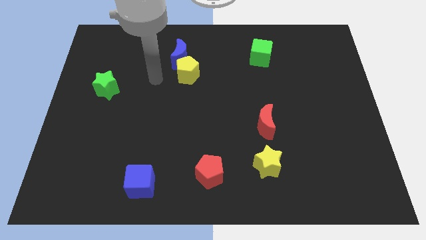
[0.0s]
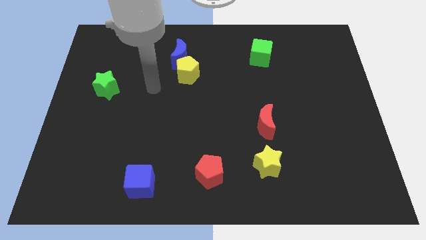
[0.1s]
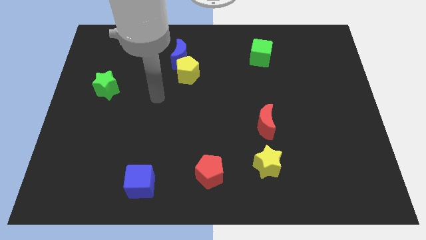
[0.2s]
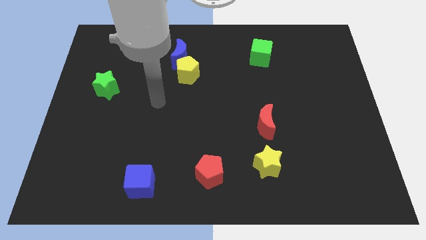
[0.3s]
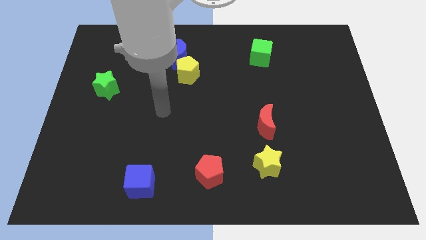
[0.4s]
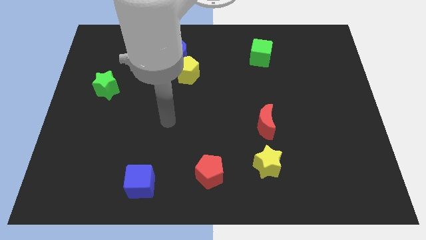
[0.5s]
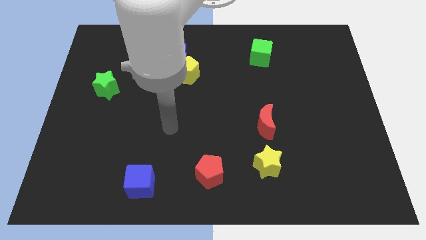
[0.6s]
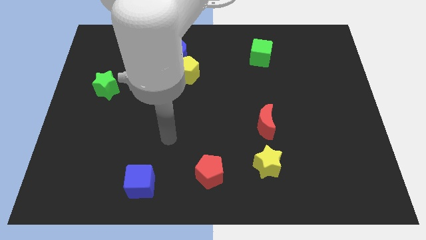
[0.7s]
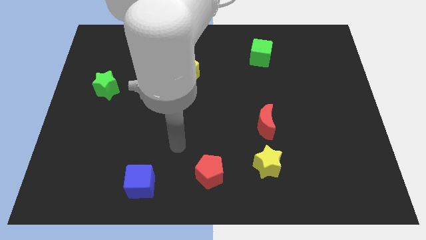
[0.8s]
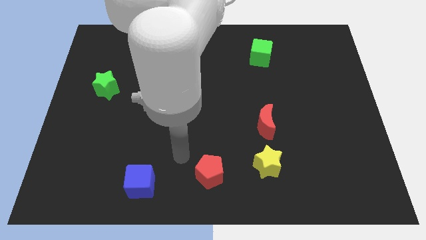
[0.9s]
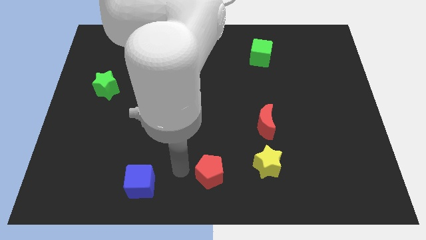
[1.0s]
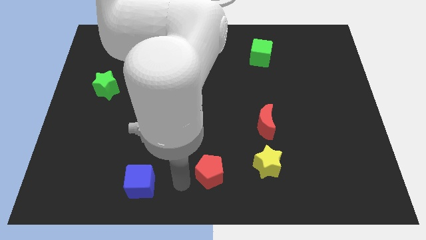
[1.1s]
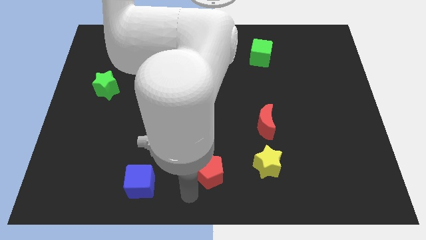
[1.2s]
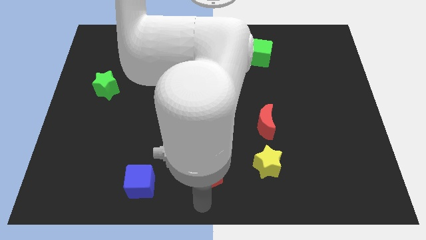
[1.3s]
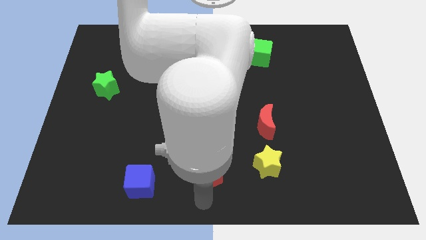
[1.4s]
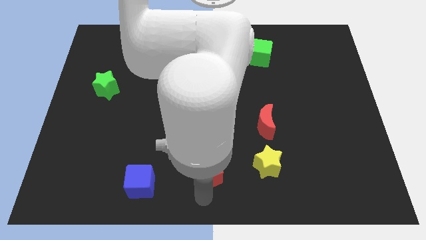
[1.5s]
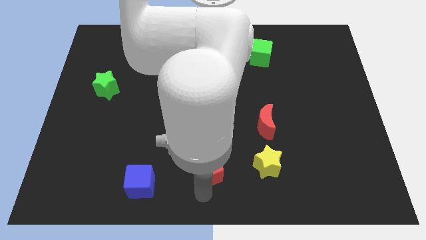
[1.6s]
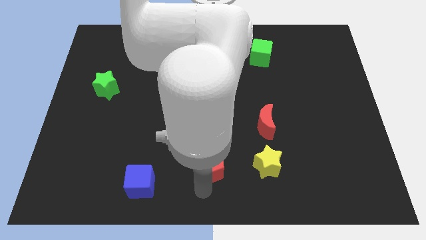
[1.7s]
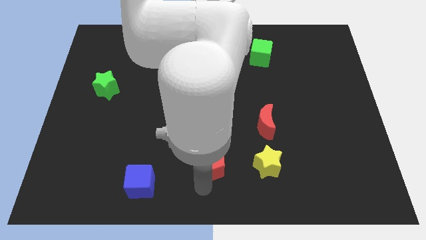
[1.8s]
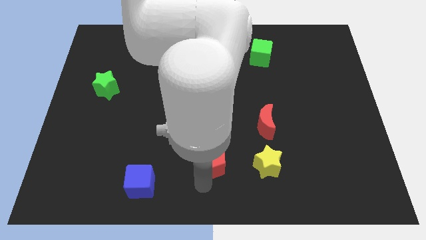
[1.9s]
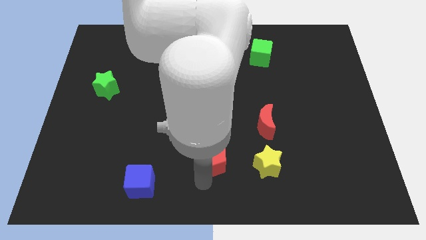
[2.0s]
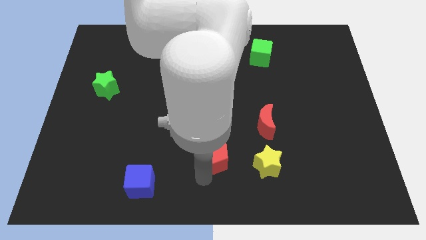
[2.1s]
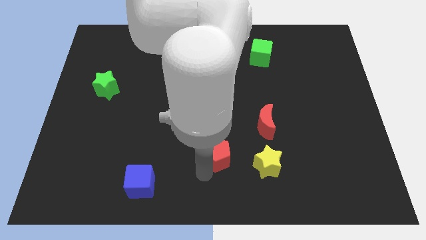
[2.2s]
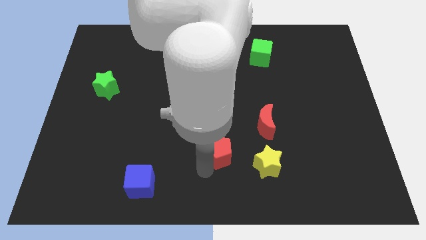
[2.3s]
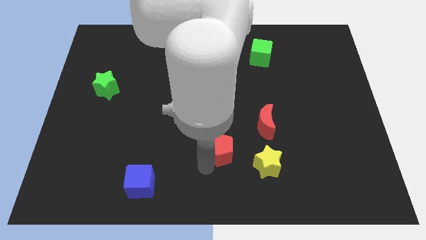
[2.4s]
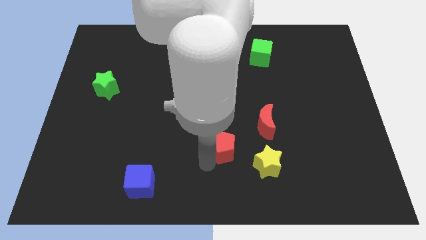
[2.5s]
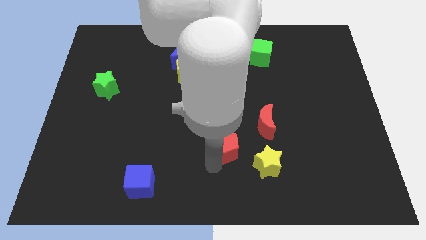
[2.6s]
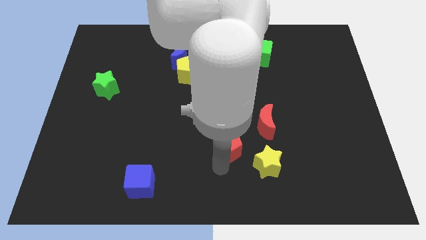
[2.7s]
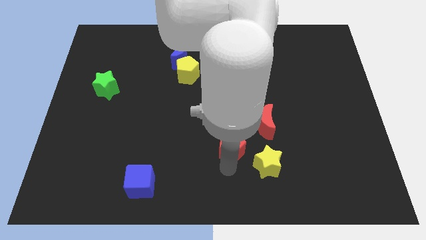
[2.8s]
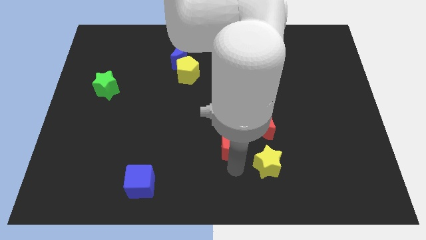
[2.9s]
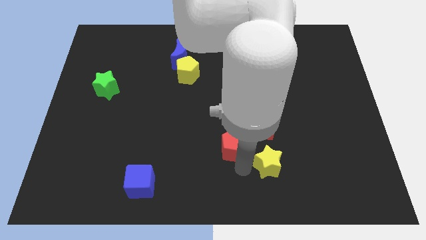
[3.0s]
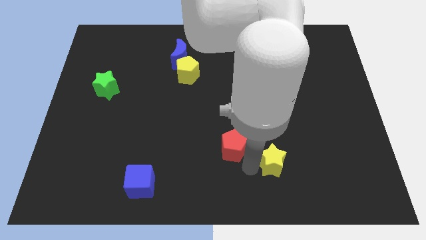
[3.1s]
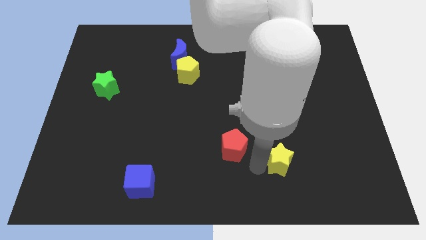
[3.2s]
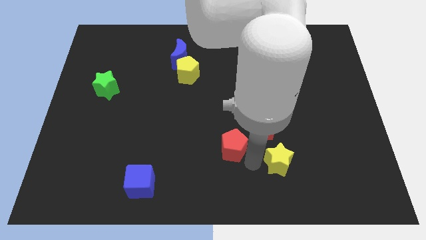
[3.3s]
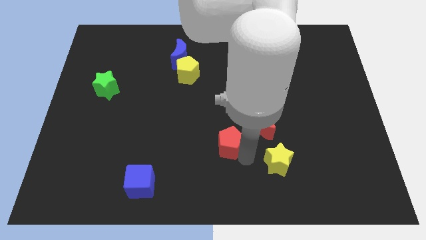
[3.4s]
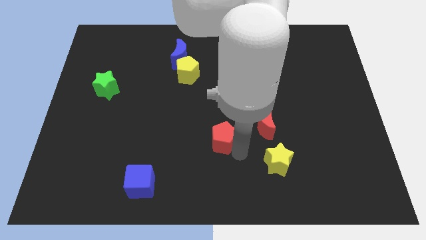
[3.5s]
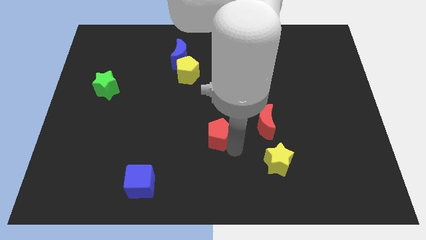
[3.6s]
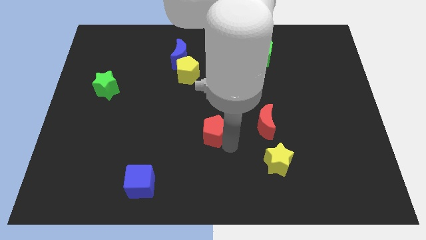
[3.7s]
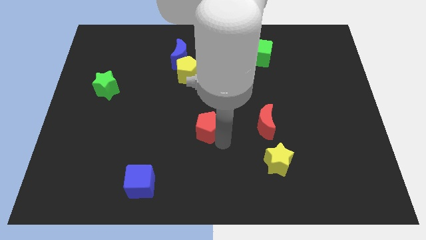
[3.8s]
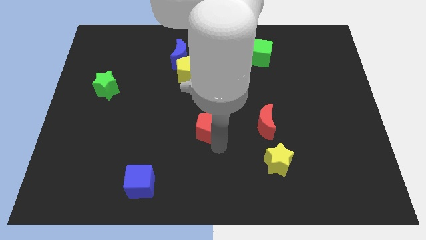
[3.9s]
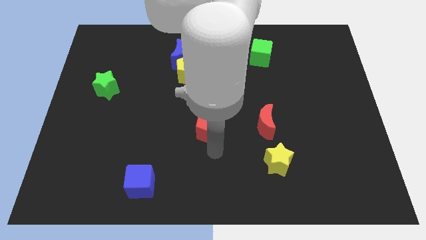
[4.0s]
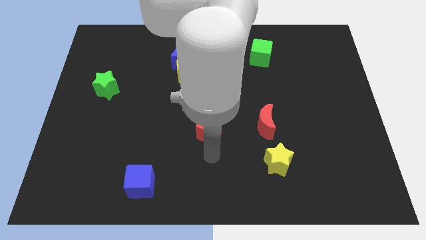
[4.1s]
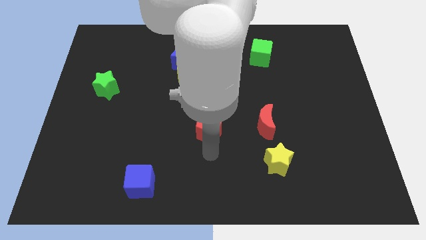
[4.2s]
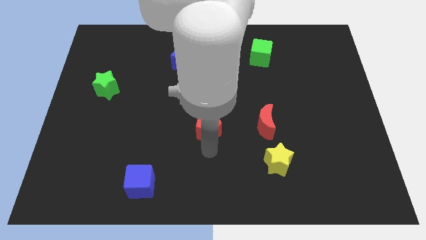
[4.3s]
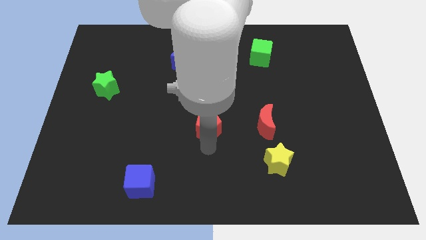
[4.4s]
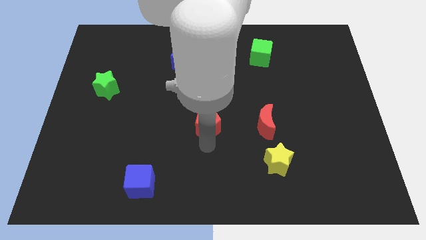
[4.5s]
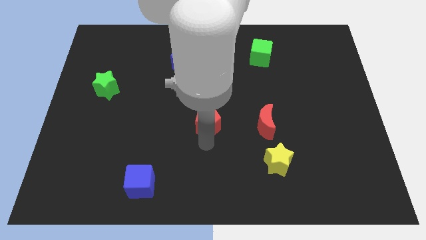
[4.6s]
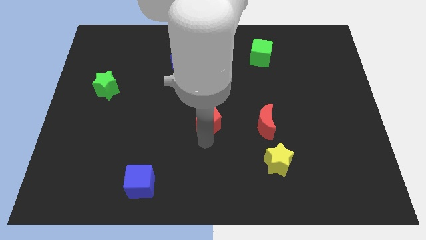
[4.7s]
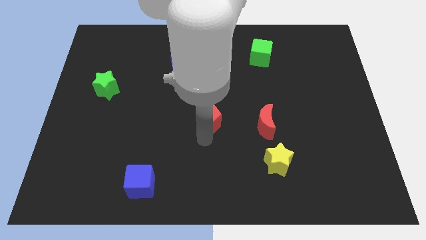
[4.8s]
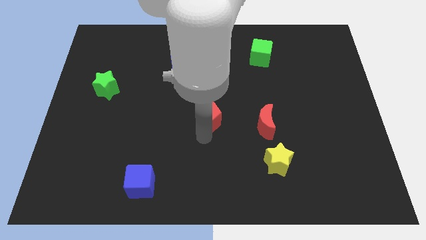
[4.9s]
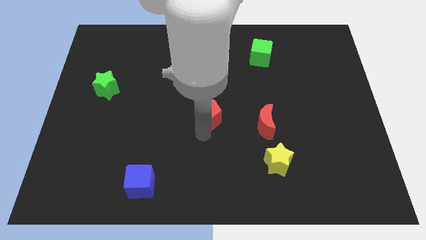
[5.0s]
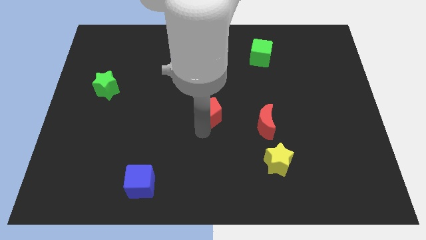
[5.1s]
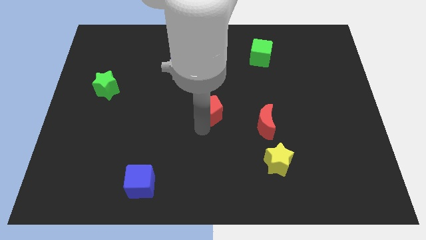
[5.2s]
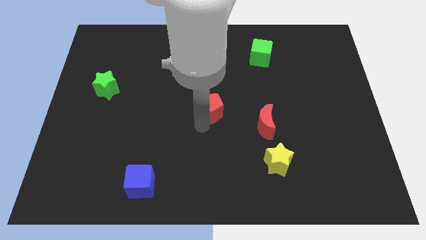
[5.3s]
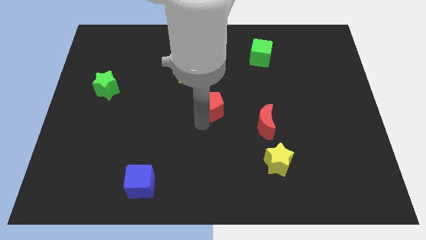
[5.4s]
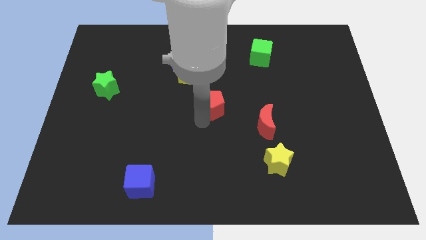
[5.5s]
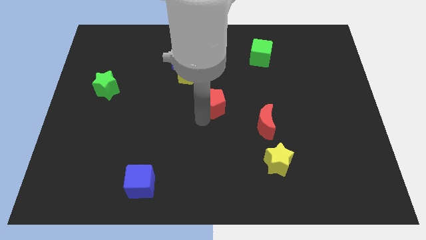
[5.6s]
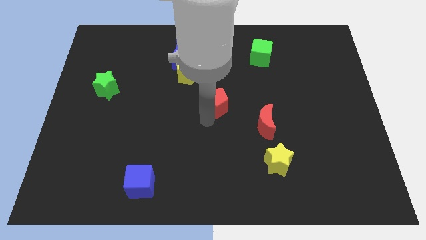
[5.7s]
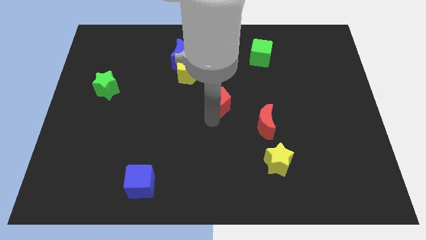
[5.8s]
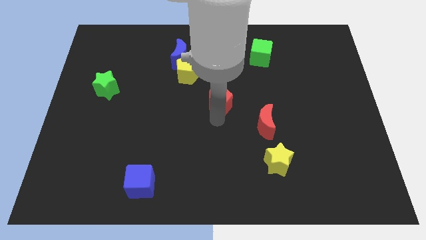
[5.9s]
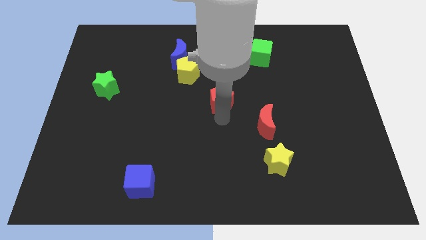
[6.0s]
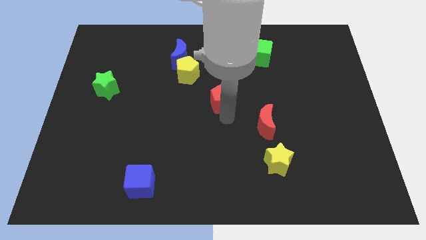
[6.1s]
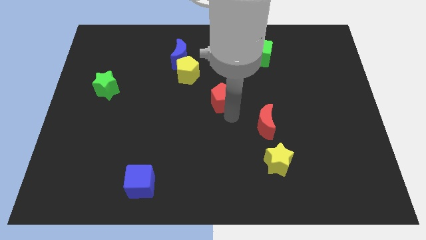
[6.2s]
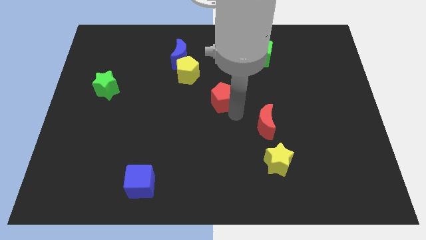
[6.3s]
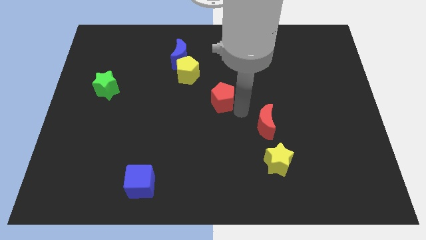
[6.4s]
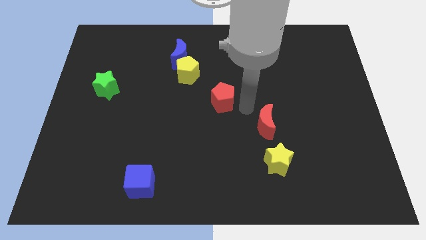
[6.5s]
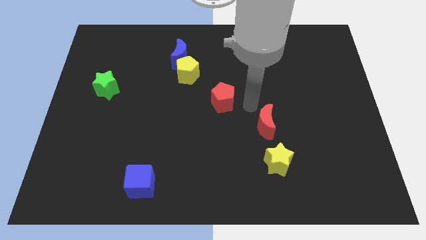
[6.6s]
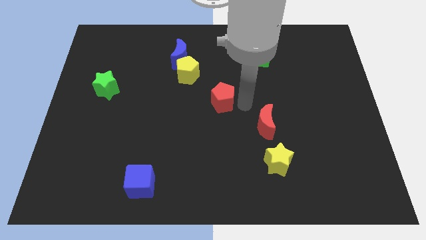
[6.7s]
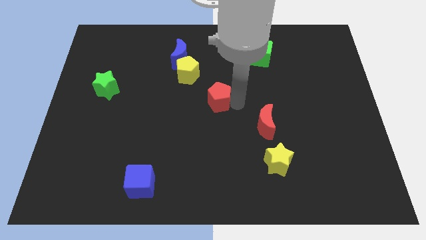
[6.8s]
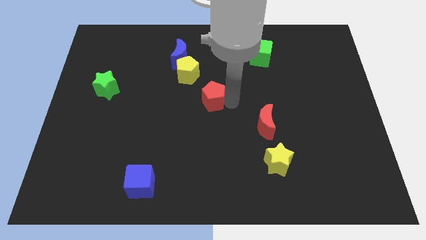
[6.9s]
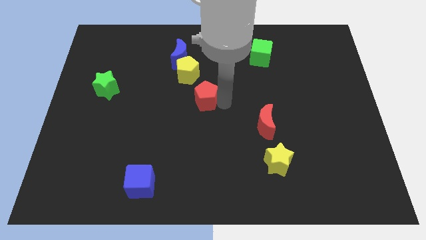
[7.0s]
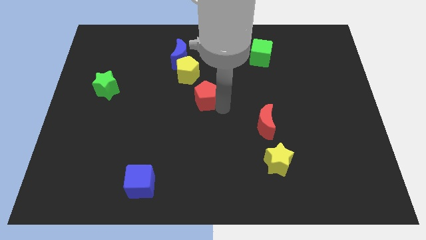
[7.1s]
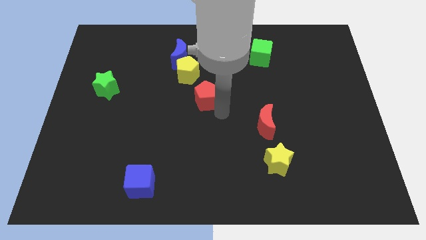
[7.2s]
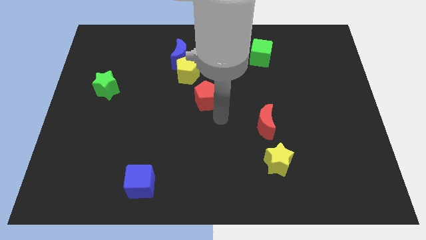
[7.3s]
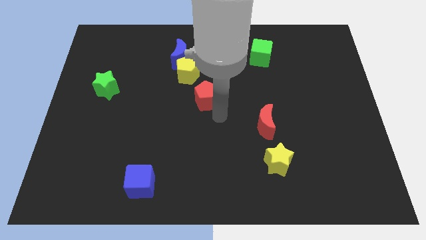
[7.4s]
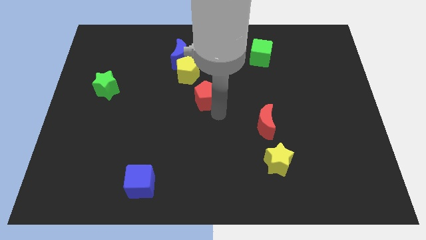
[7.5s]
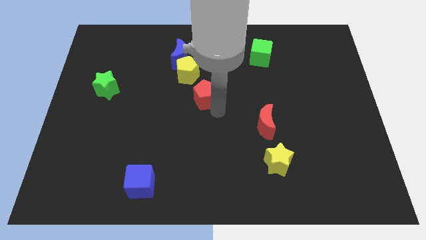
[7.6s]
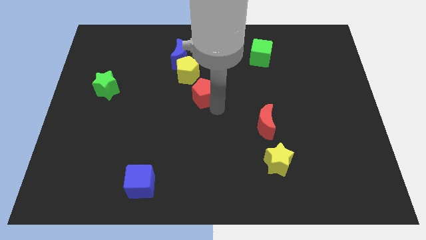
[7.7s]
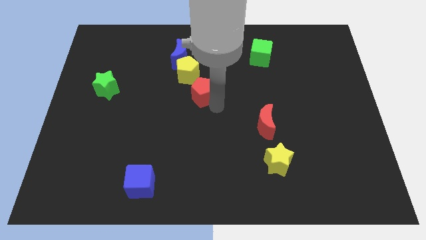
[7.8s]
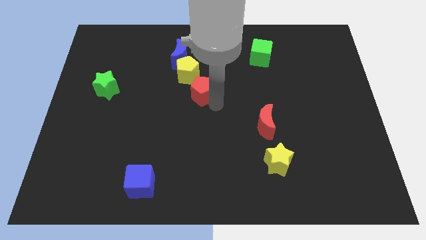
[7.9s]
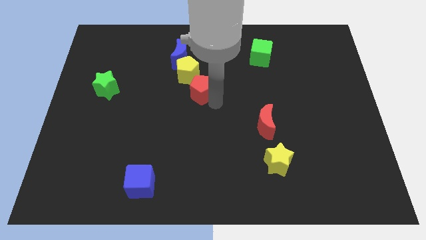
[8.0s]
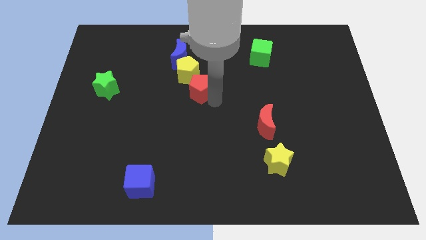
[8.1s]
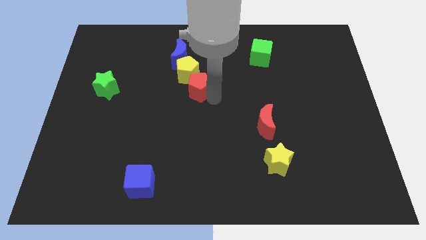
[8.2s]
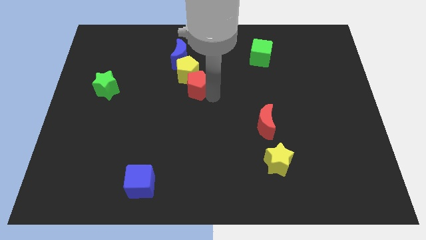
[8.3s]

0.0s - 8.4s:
put the red pentagon towards the yellow pentagon
